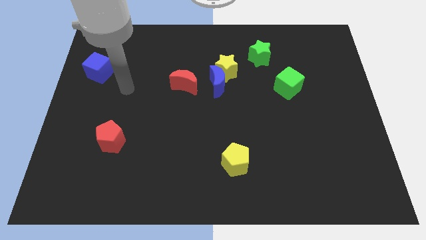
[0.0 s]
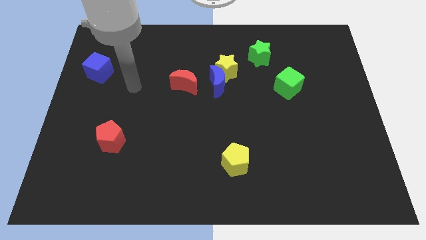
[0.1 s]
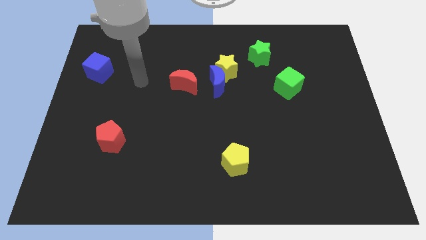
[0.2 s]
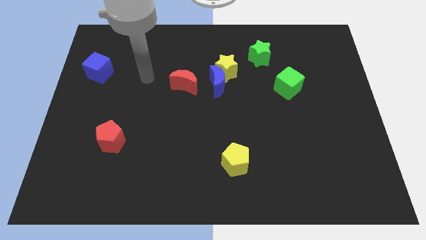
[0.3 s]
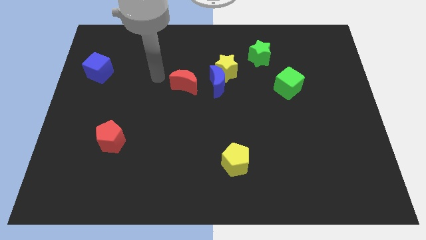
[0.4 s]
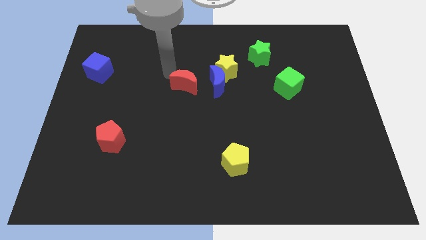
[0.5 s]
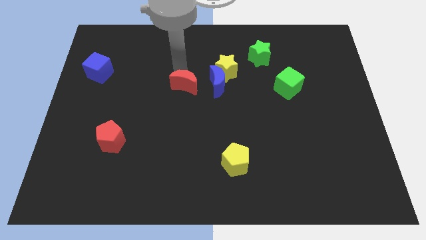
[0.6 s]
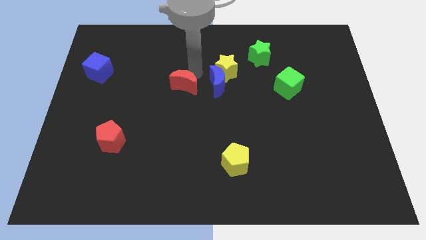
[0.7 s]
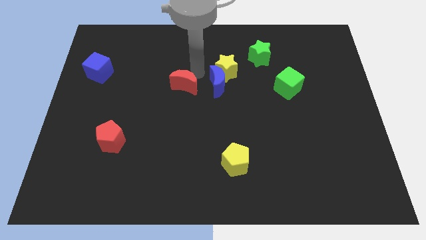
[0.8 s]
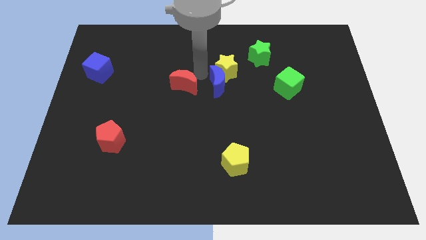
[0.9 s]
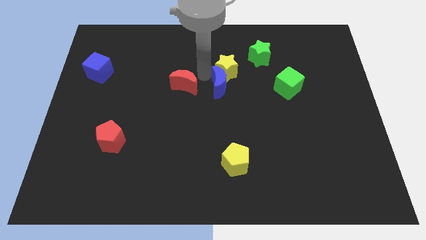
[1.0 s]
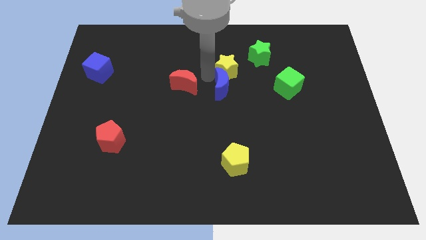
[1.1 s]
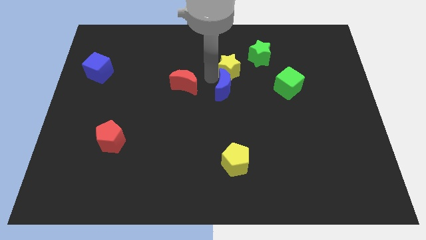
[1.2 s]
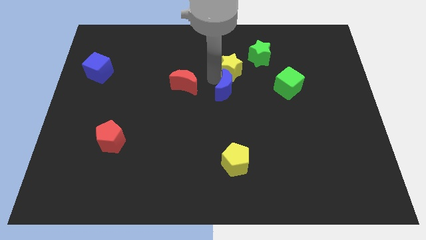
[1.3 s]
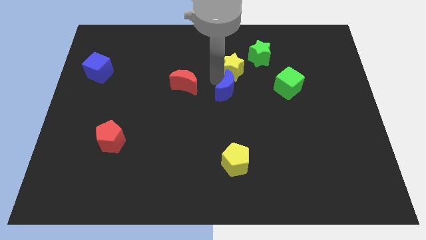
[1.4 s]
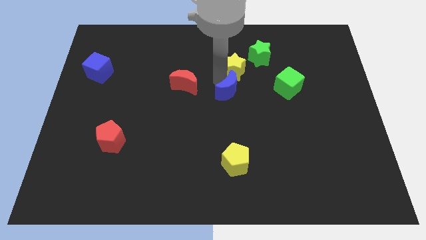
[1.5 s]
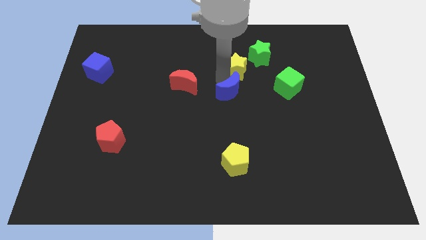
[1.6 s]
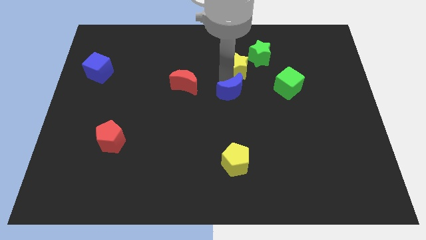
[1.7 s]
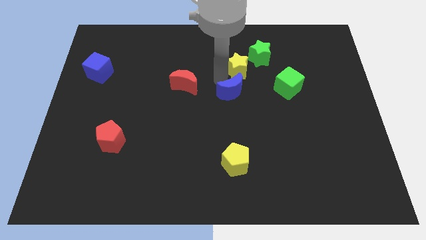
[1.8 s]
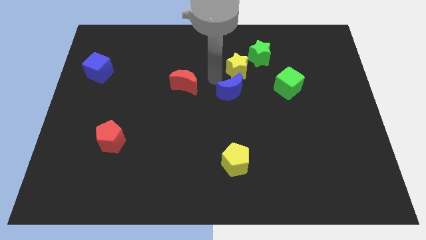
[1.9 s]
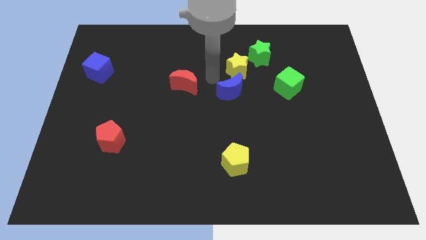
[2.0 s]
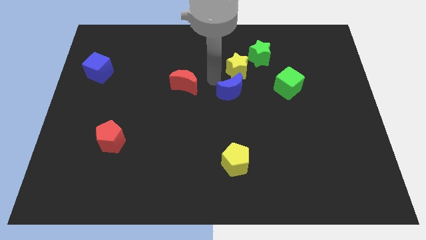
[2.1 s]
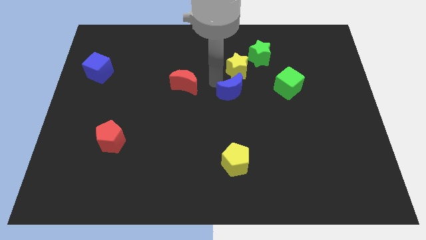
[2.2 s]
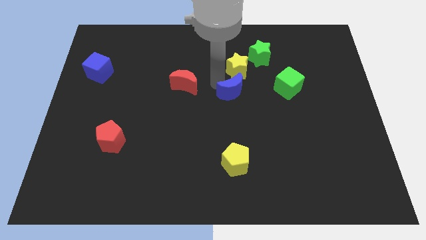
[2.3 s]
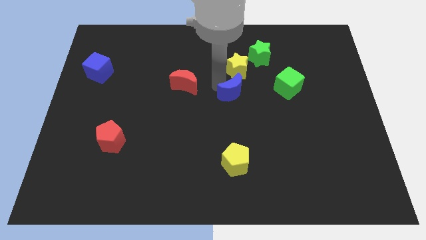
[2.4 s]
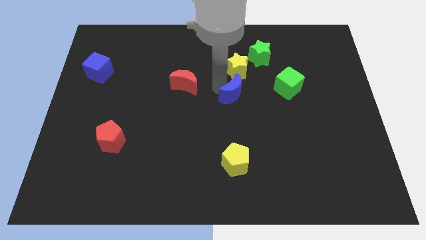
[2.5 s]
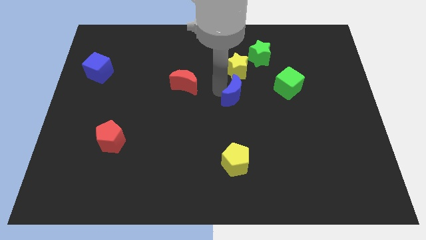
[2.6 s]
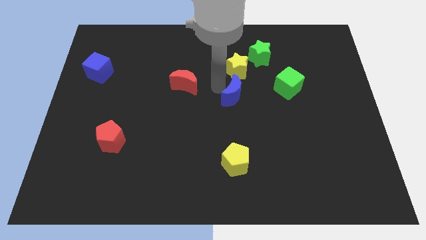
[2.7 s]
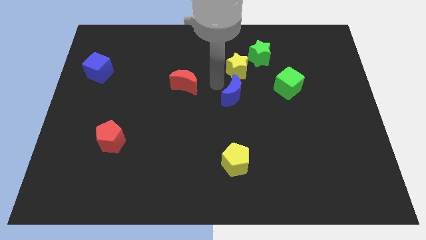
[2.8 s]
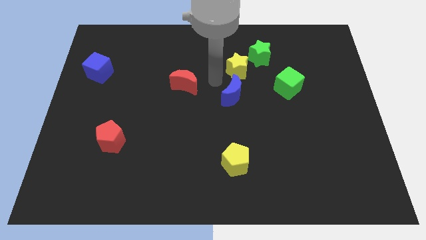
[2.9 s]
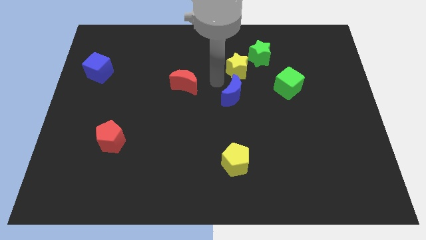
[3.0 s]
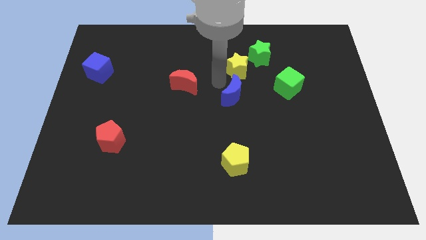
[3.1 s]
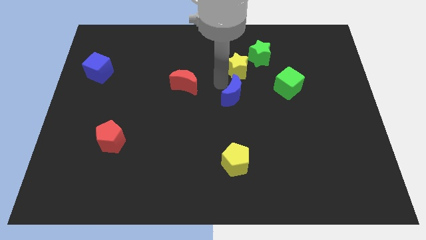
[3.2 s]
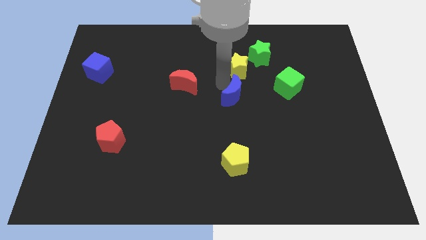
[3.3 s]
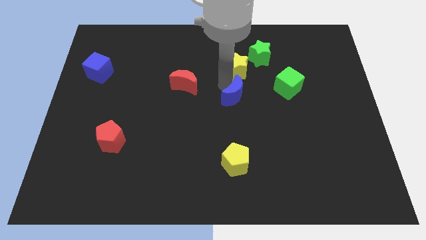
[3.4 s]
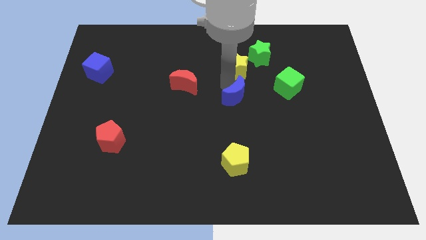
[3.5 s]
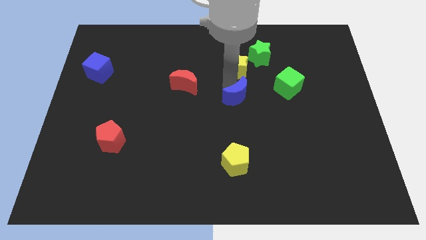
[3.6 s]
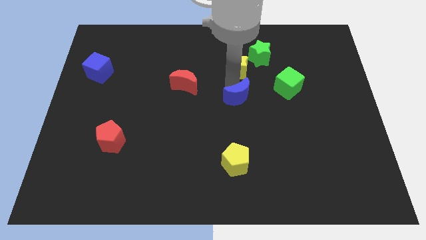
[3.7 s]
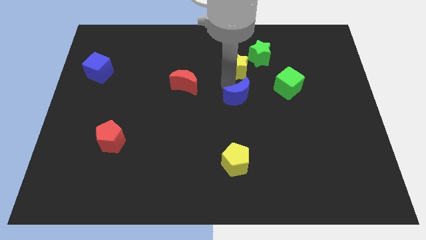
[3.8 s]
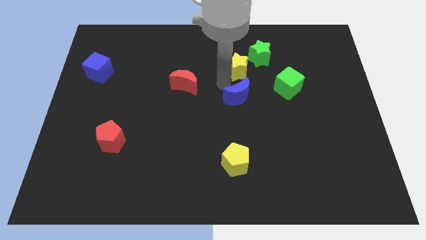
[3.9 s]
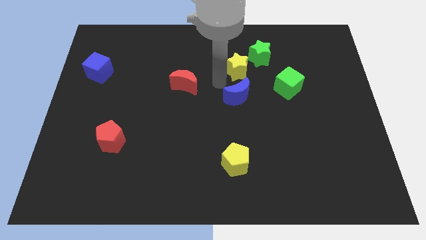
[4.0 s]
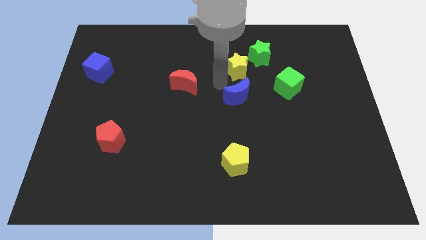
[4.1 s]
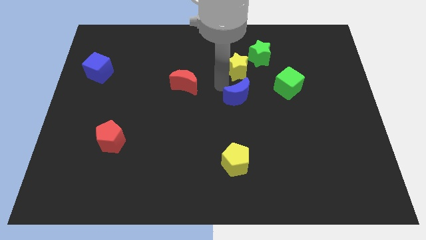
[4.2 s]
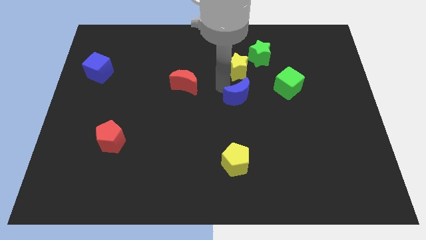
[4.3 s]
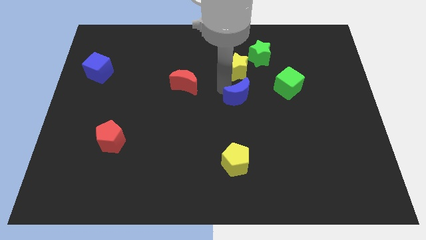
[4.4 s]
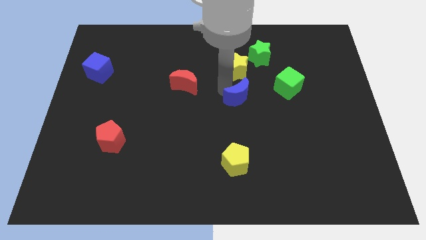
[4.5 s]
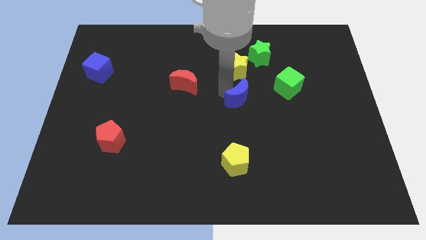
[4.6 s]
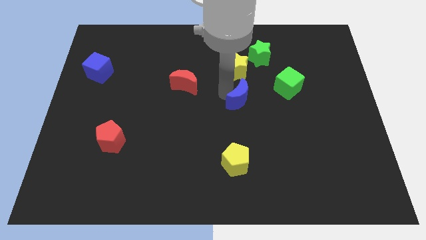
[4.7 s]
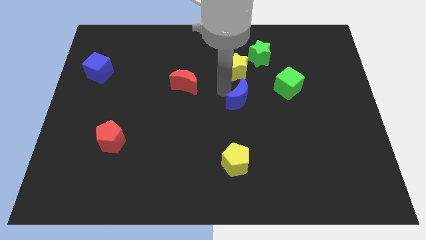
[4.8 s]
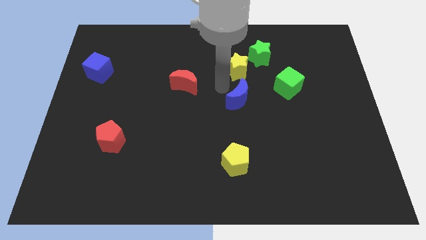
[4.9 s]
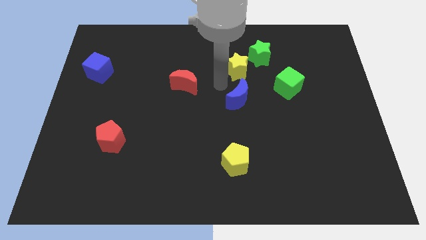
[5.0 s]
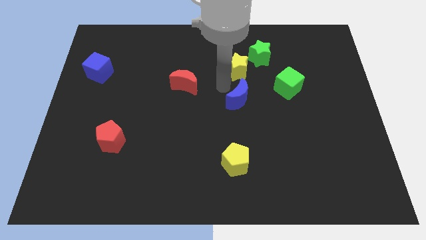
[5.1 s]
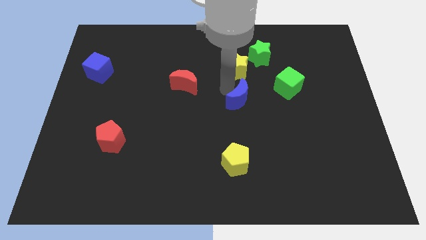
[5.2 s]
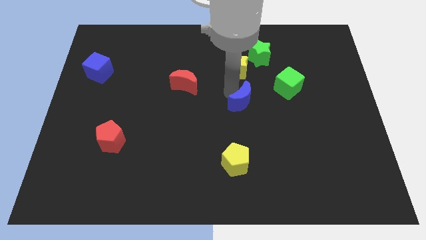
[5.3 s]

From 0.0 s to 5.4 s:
separate the blue moon from the yellow star and red moon

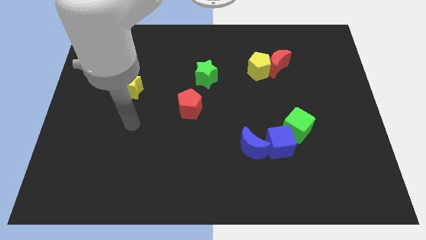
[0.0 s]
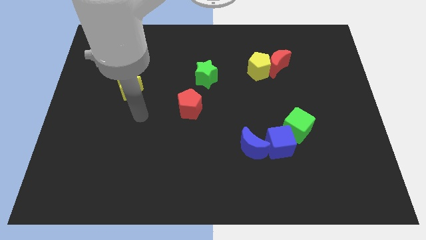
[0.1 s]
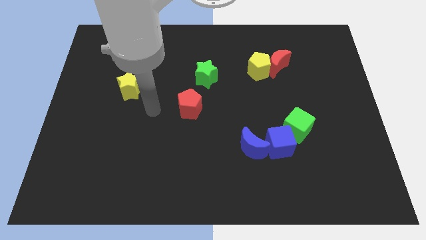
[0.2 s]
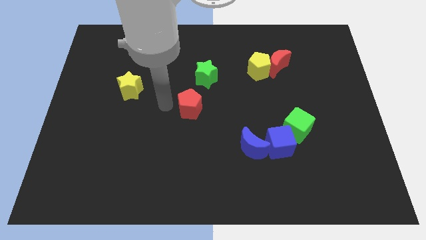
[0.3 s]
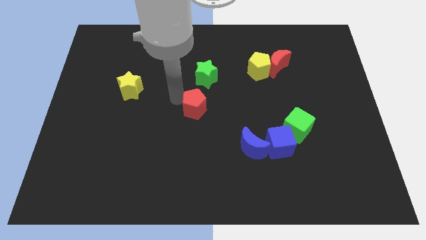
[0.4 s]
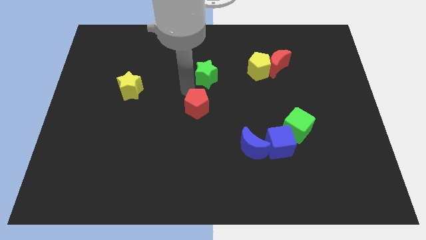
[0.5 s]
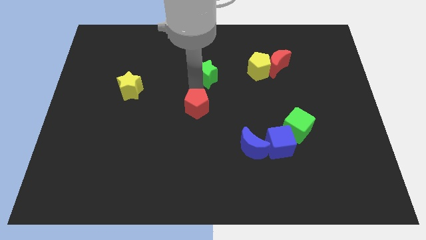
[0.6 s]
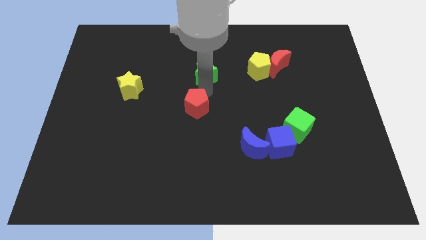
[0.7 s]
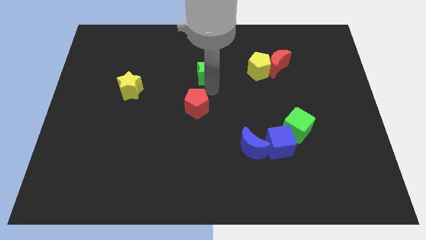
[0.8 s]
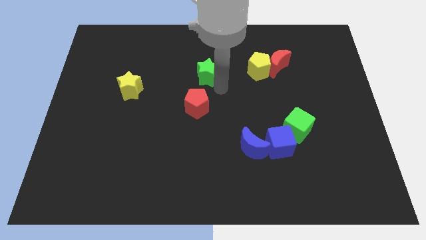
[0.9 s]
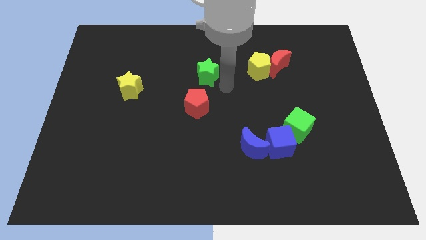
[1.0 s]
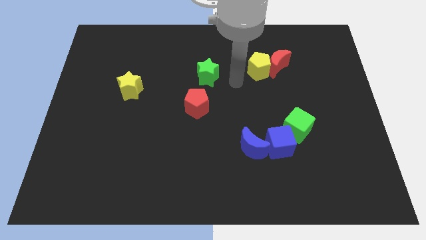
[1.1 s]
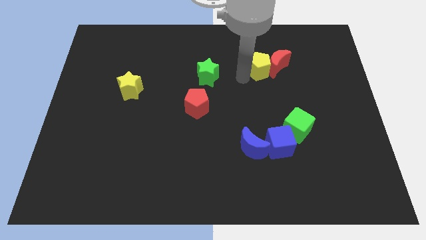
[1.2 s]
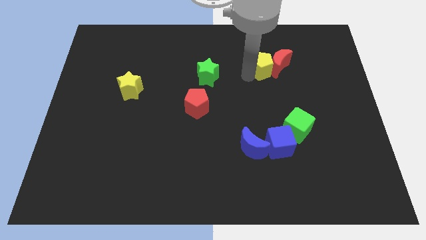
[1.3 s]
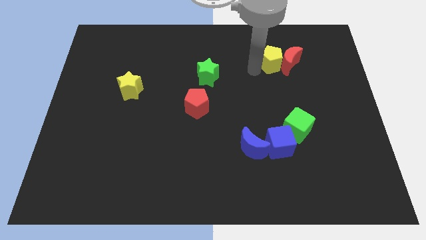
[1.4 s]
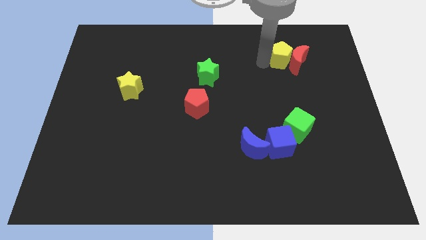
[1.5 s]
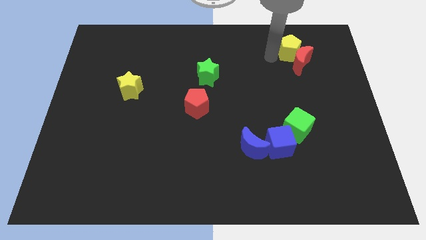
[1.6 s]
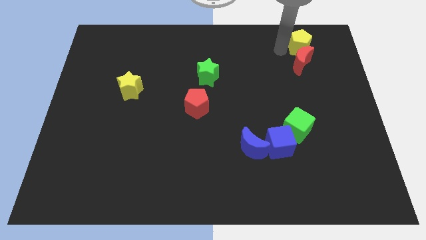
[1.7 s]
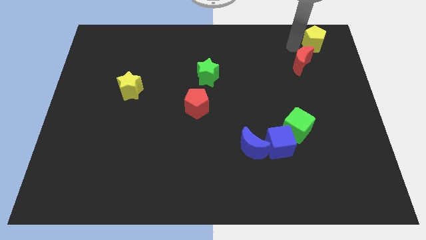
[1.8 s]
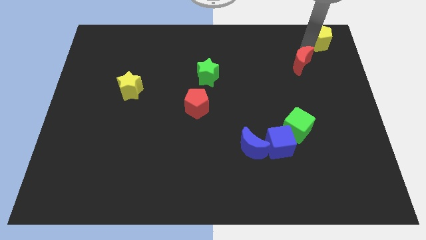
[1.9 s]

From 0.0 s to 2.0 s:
move the red moon away from the yellow pentagon

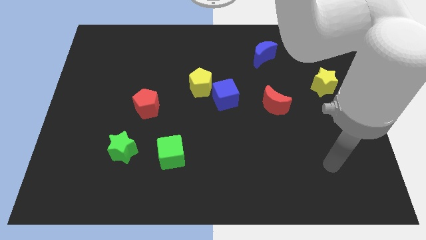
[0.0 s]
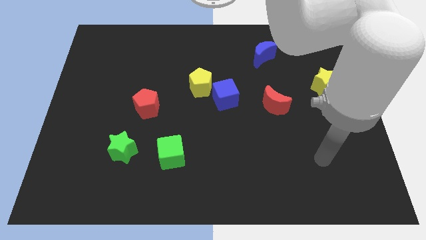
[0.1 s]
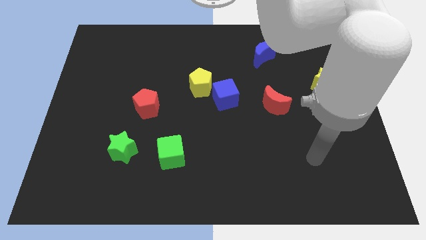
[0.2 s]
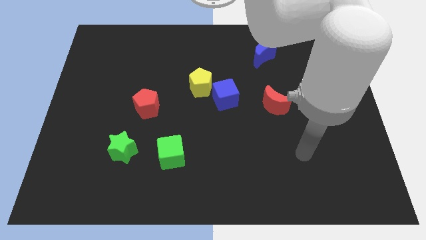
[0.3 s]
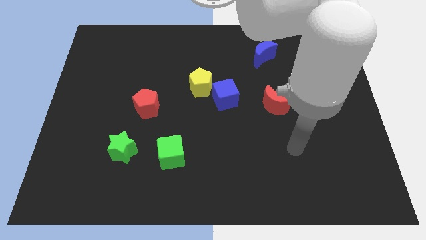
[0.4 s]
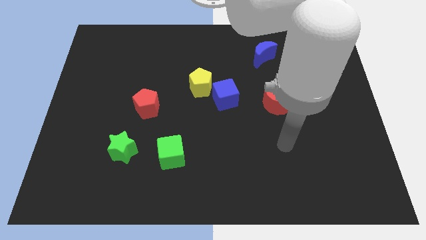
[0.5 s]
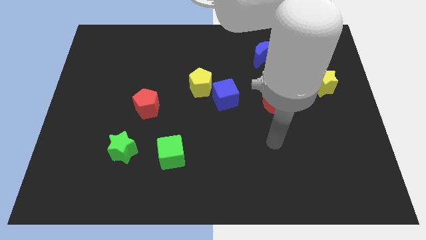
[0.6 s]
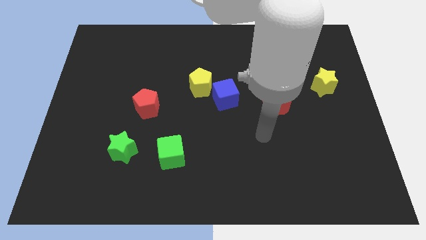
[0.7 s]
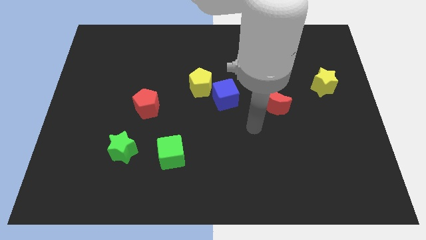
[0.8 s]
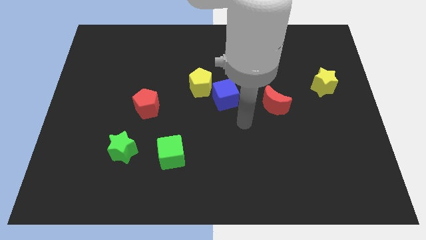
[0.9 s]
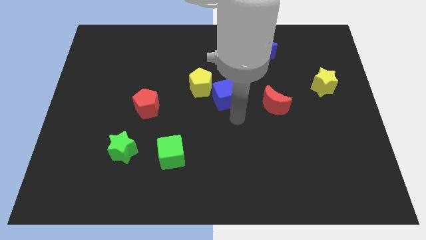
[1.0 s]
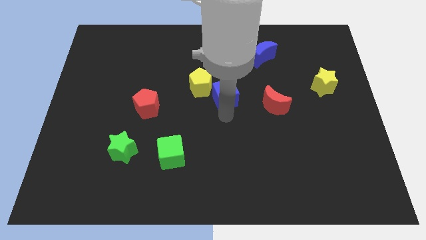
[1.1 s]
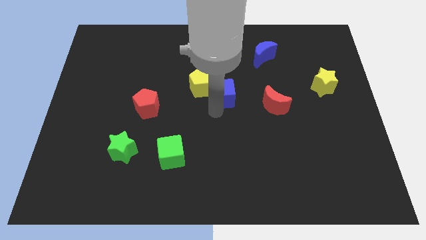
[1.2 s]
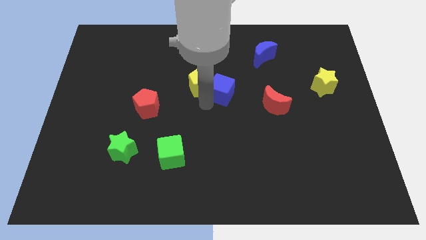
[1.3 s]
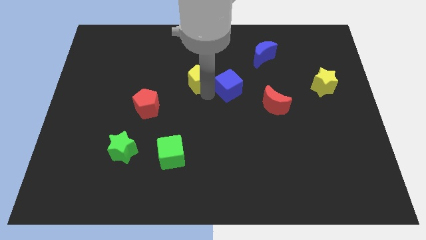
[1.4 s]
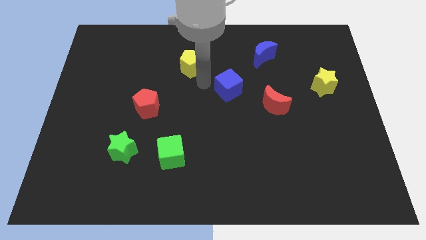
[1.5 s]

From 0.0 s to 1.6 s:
separate the blue cube from the yellow pentagon

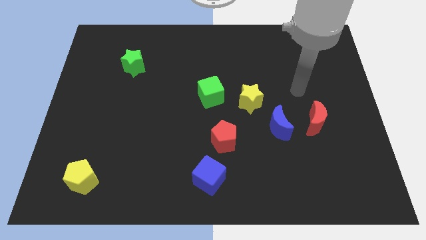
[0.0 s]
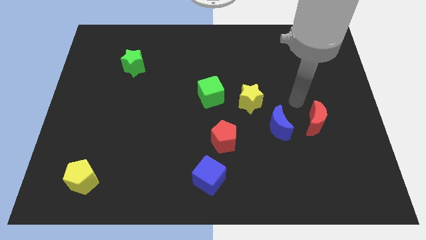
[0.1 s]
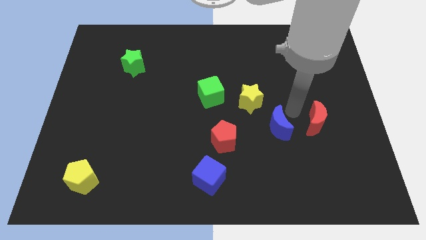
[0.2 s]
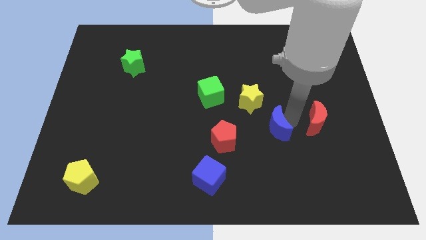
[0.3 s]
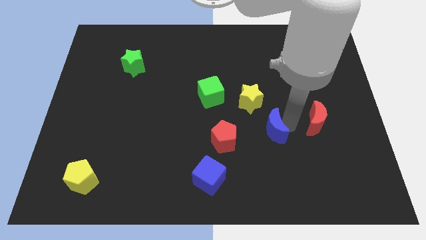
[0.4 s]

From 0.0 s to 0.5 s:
separate the red moon from the blue moon

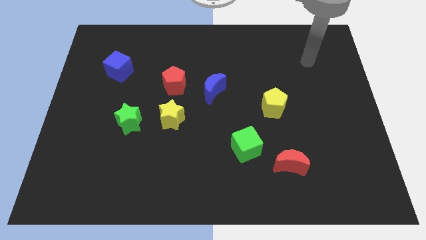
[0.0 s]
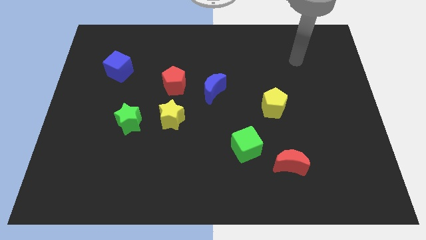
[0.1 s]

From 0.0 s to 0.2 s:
separate the red pentagon from the blue moon
